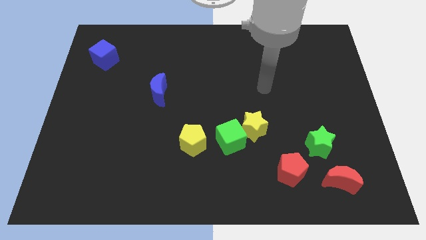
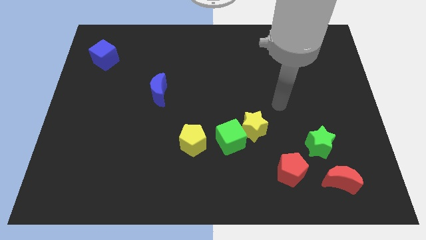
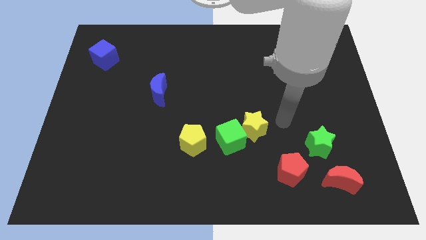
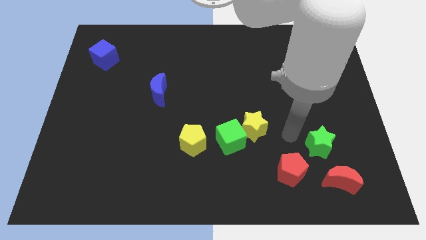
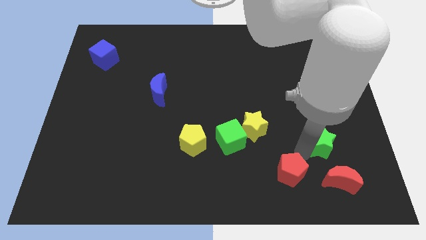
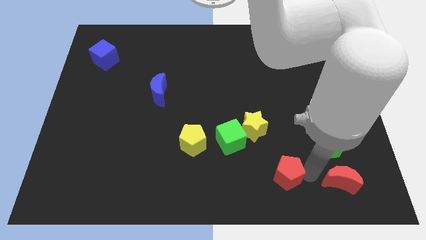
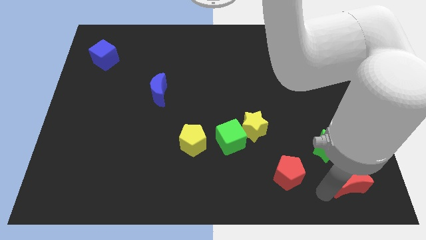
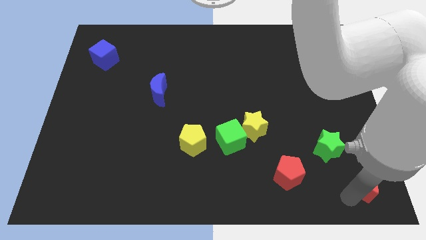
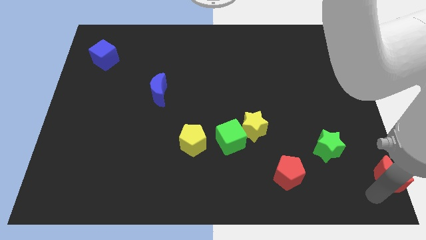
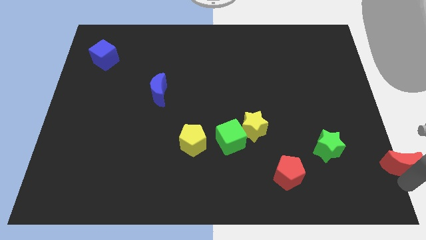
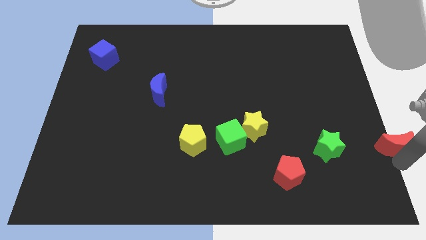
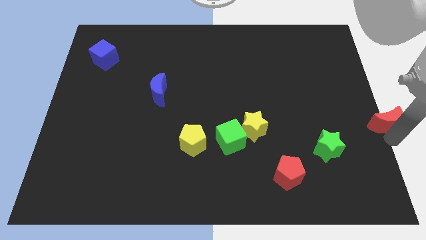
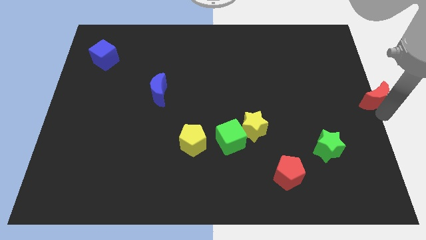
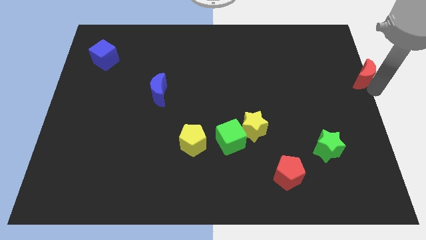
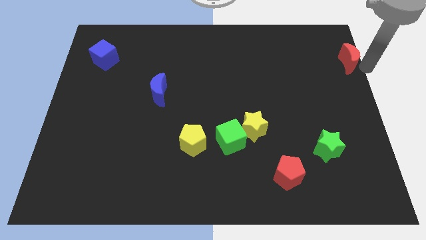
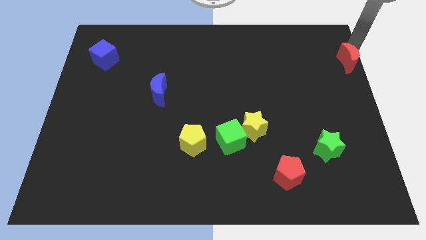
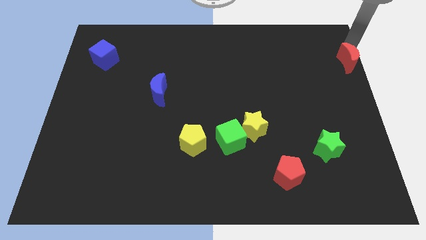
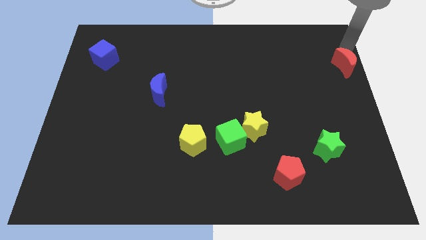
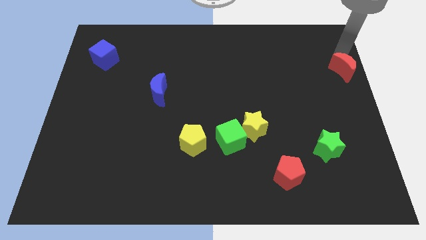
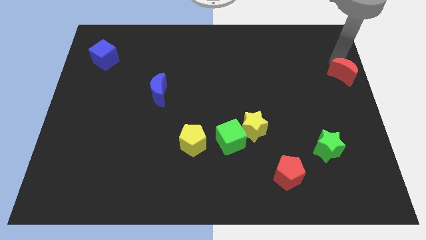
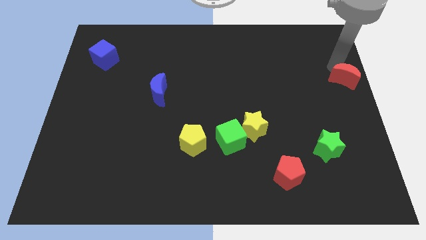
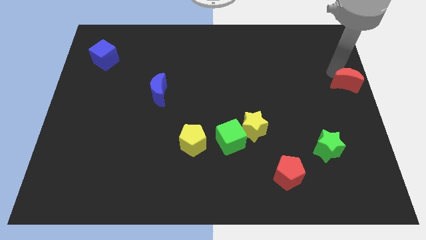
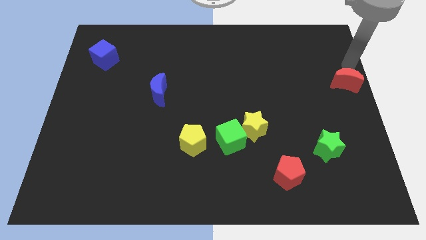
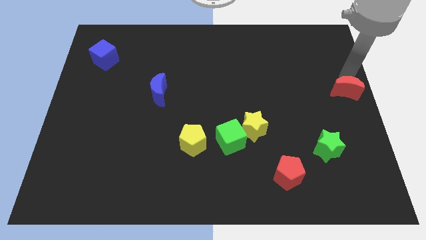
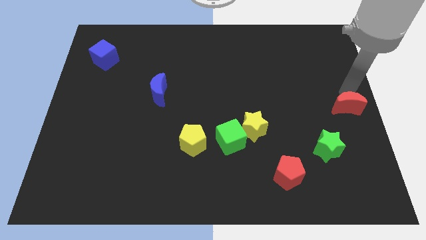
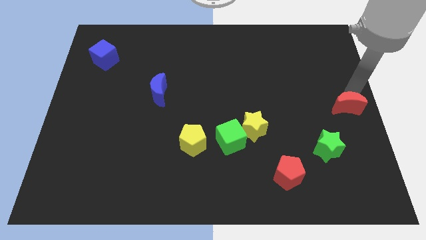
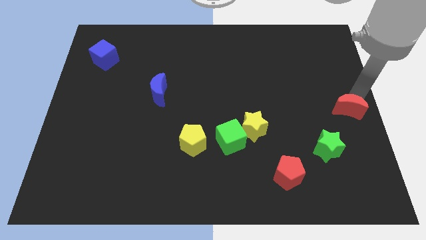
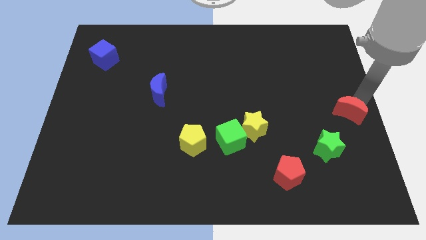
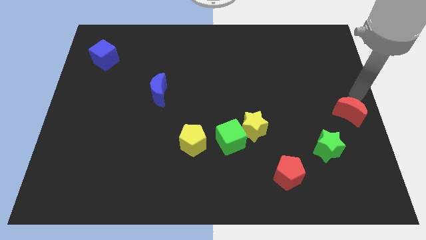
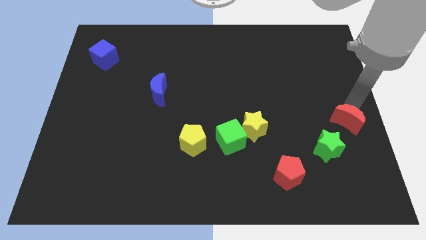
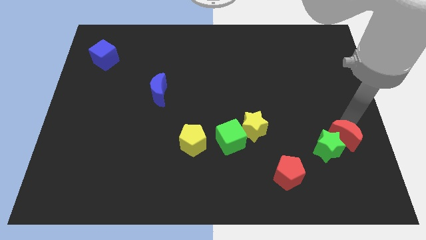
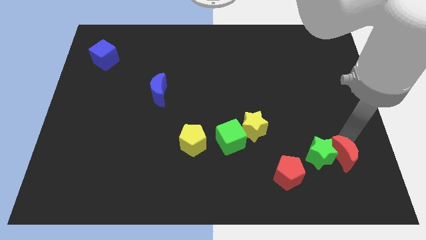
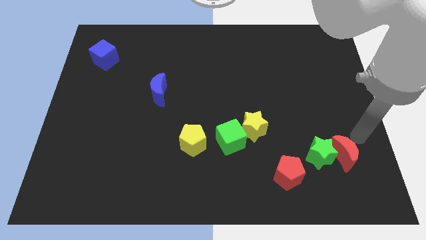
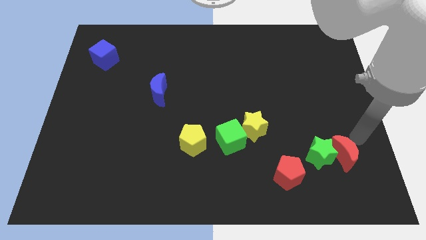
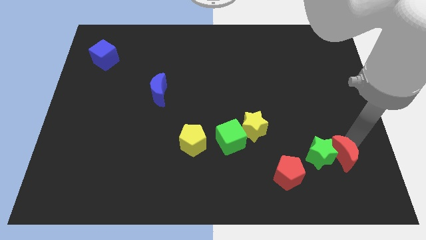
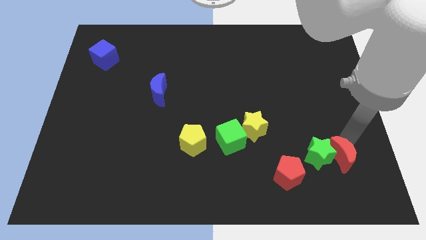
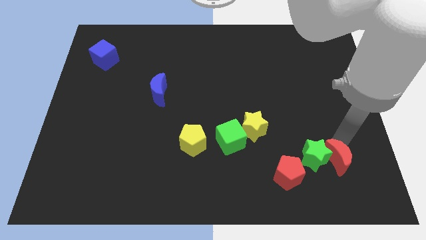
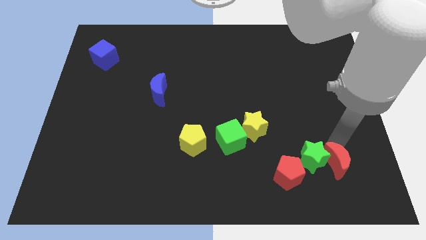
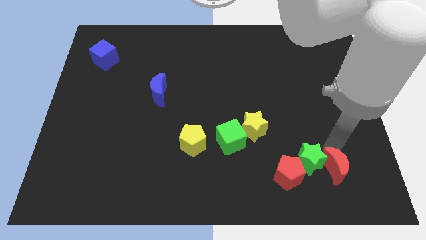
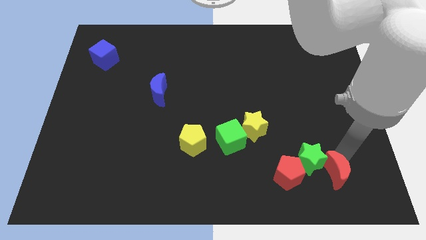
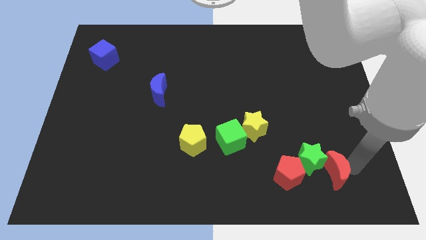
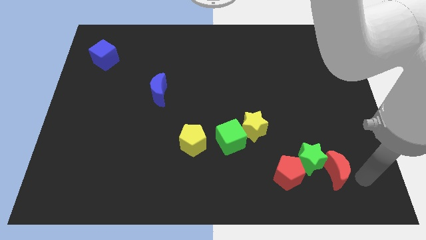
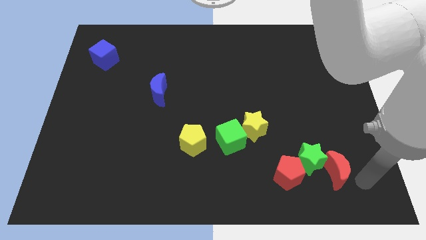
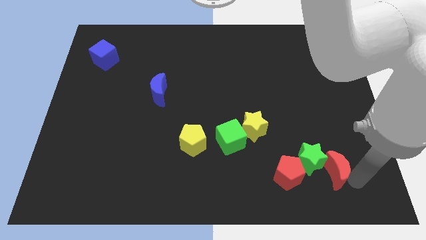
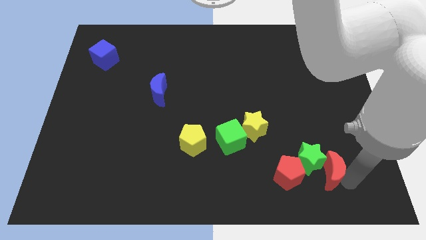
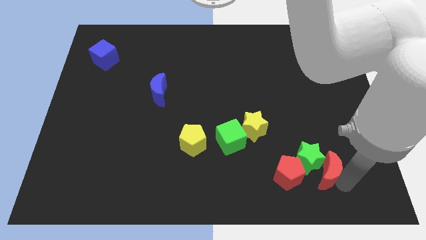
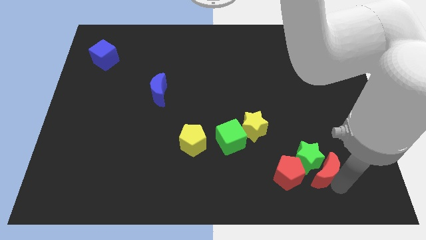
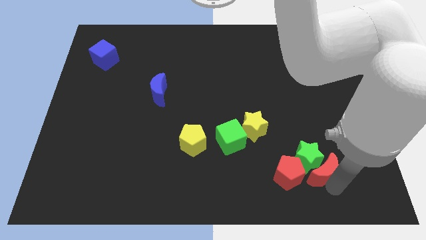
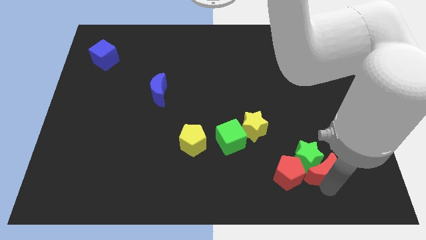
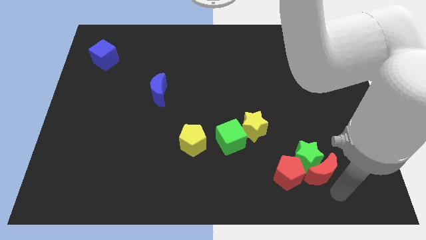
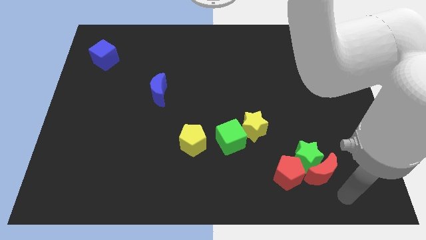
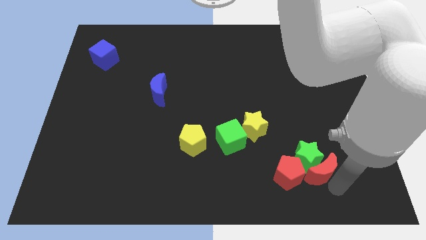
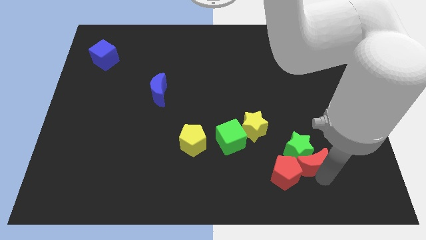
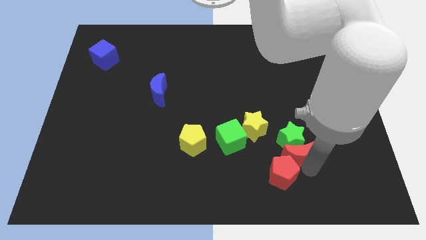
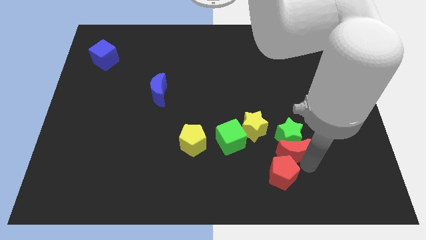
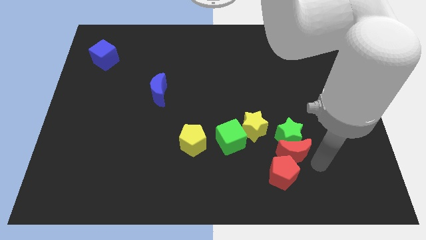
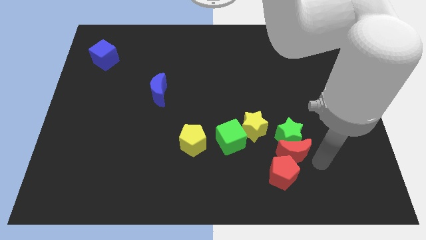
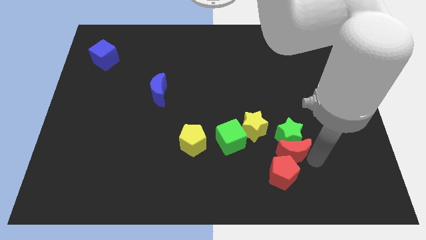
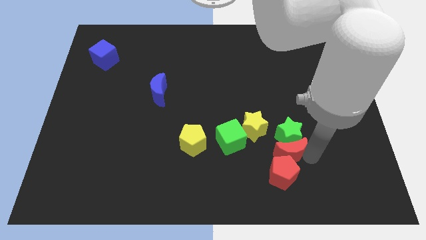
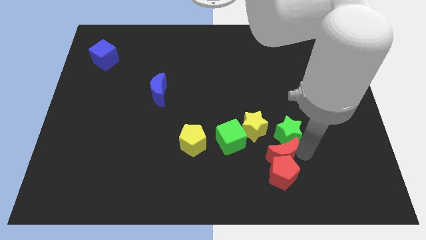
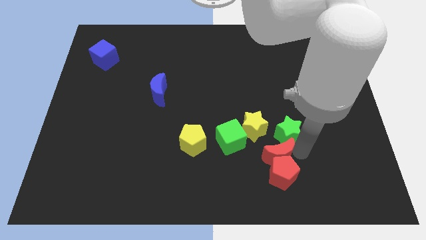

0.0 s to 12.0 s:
move the red moon diagonally down and to the right of the green cube

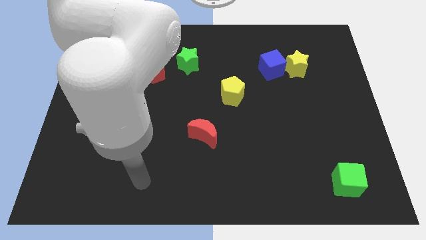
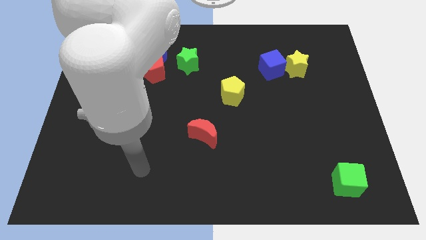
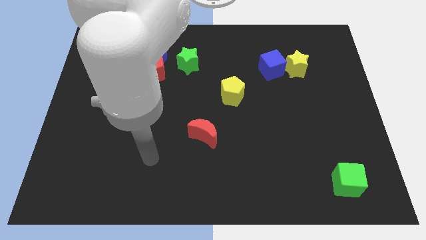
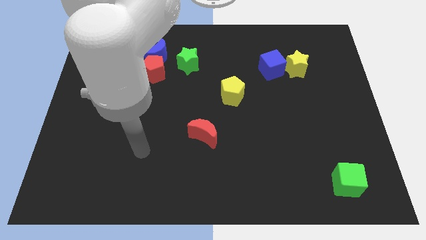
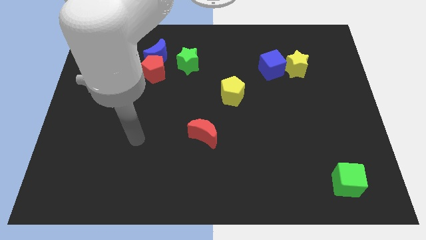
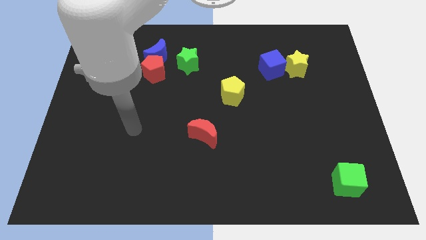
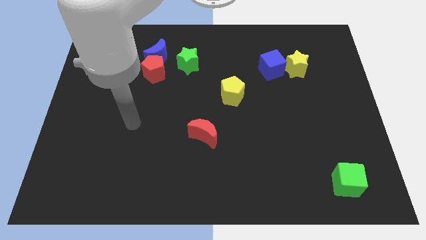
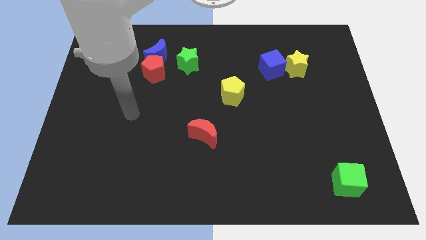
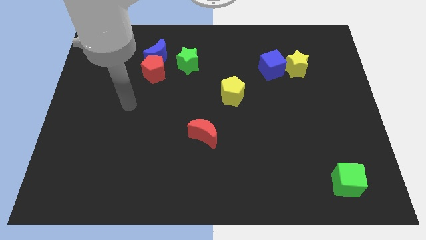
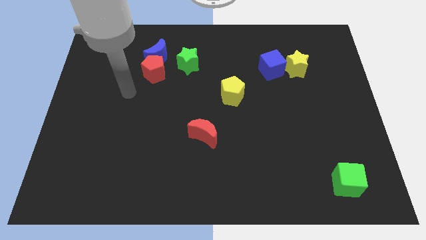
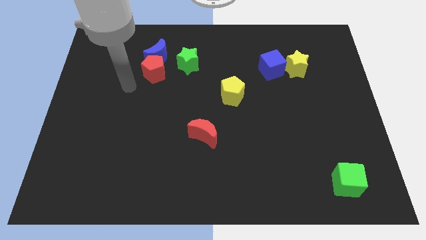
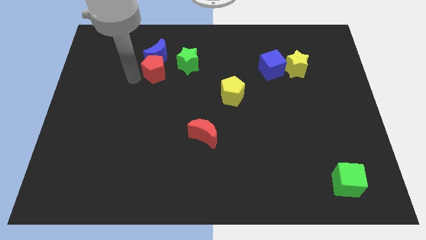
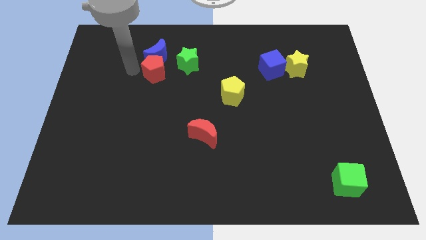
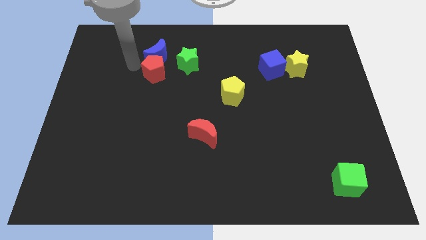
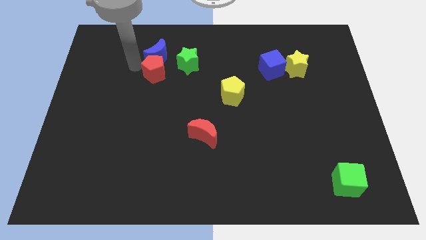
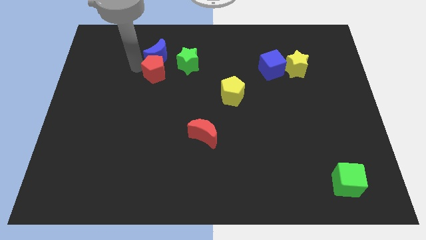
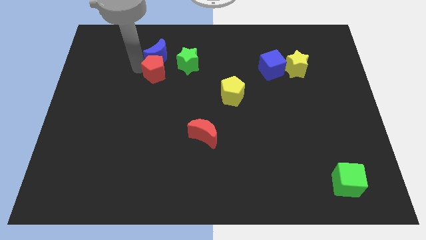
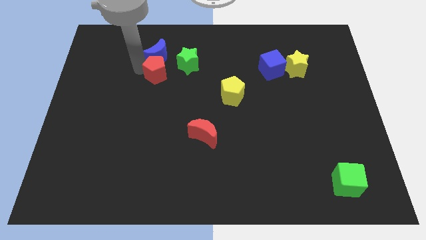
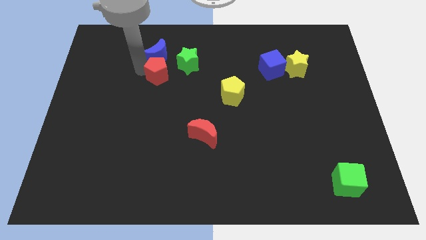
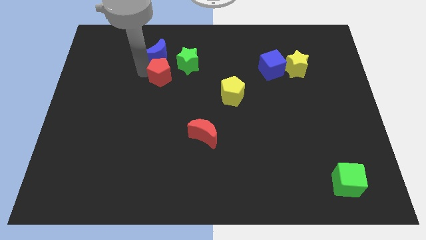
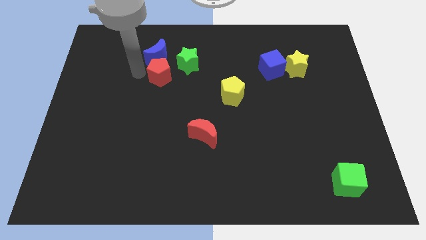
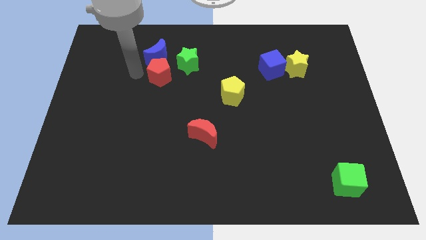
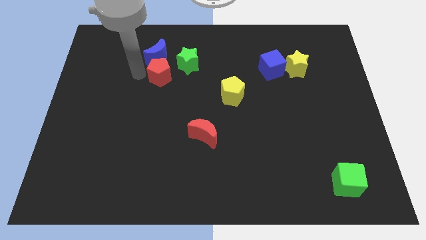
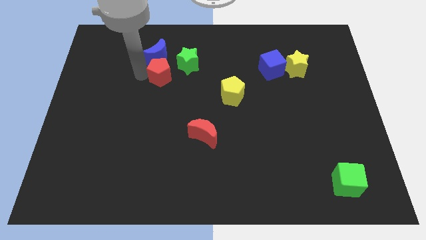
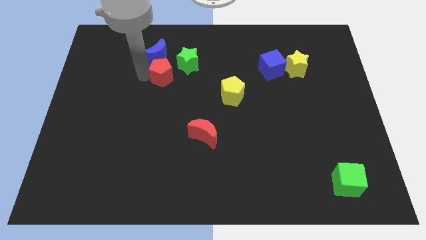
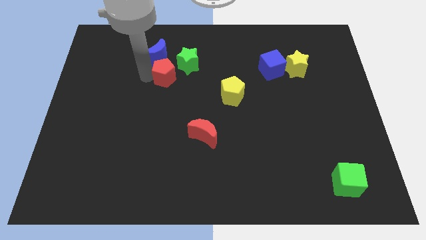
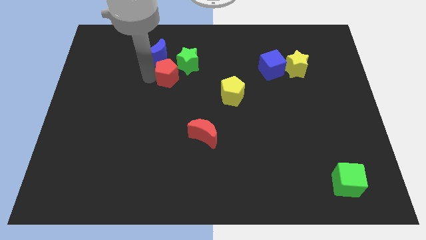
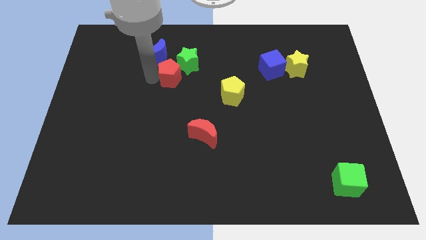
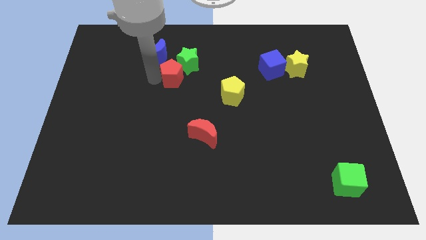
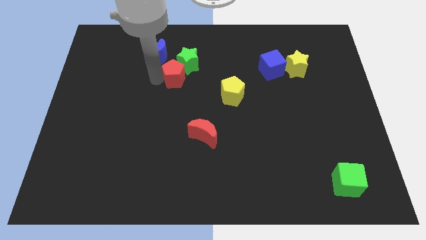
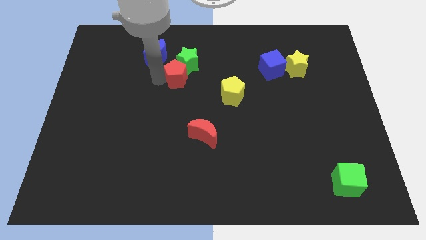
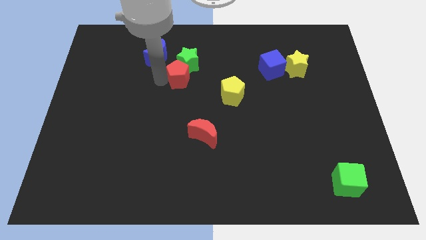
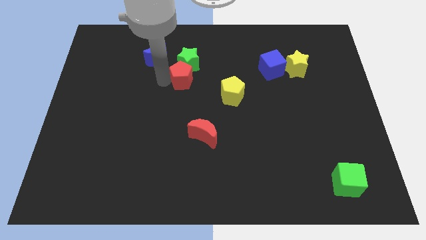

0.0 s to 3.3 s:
slide the red pentagon diagonally down and to the right of the green star
